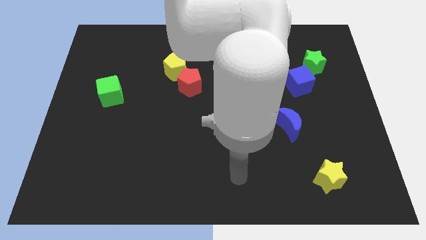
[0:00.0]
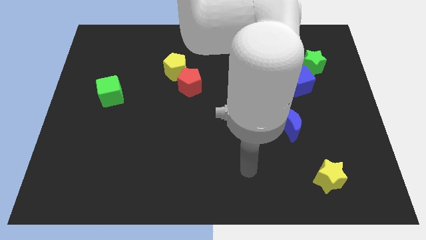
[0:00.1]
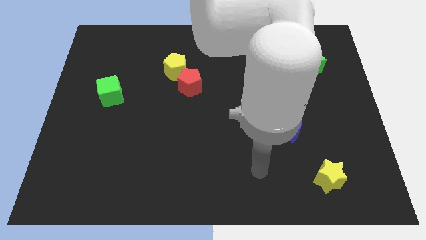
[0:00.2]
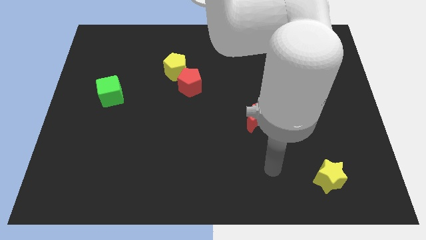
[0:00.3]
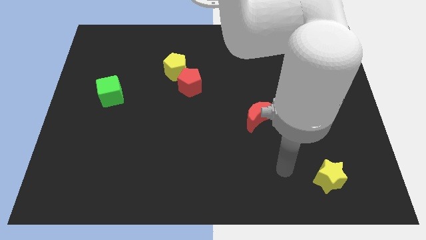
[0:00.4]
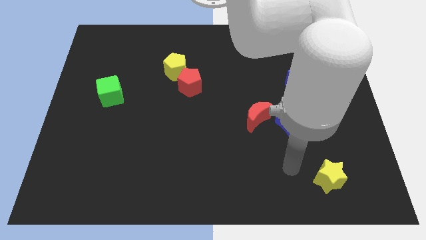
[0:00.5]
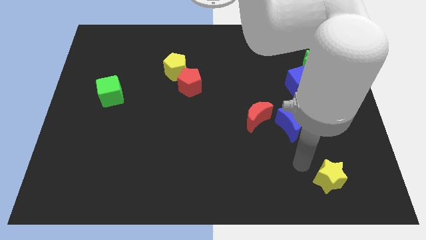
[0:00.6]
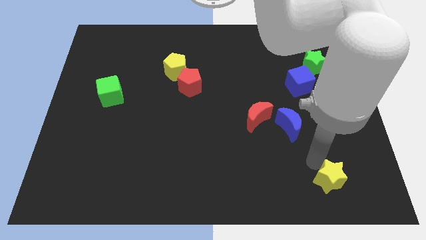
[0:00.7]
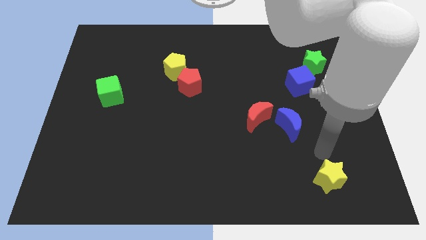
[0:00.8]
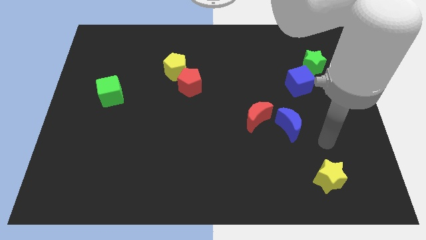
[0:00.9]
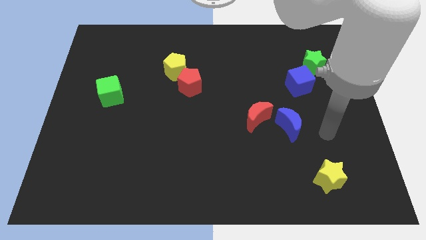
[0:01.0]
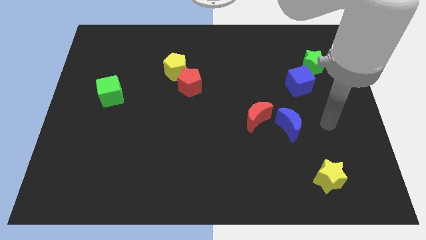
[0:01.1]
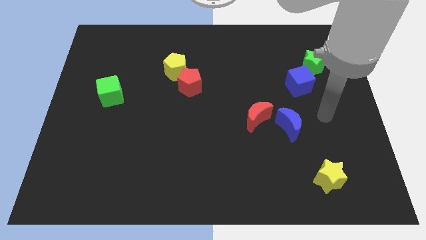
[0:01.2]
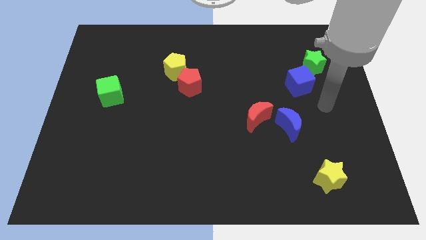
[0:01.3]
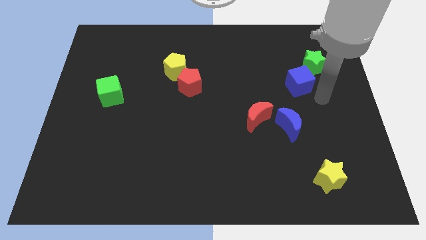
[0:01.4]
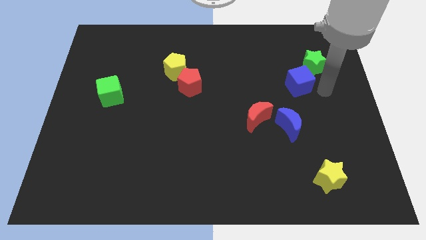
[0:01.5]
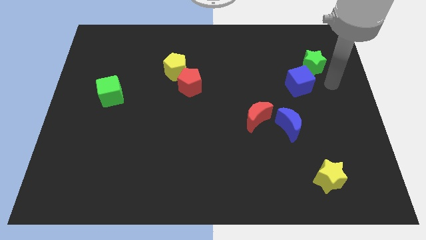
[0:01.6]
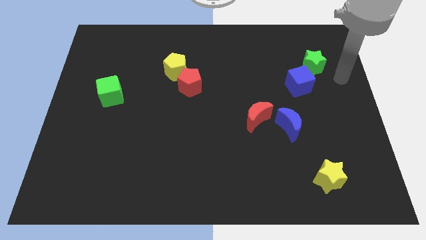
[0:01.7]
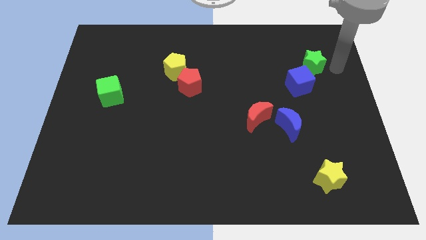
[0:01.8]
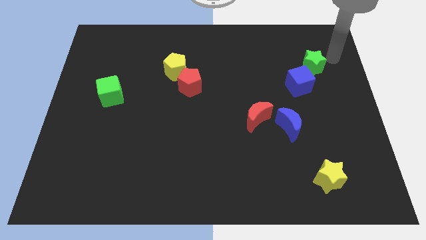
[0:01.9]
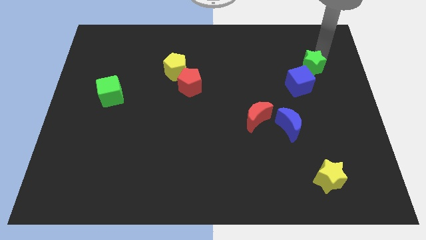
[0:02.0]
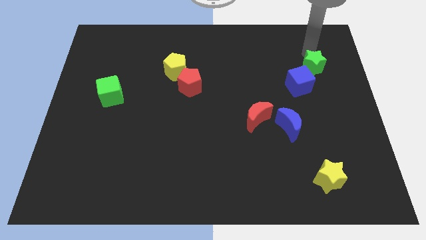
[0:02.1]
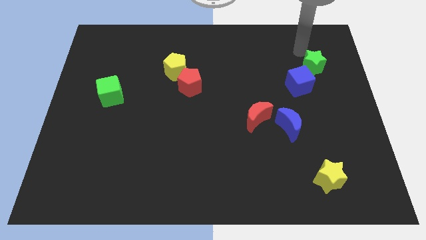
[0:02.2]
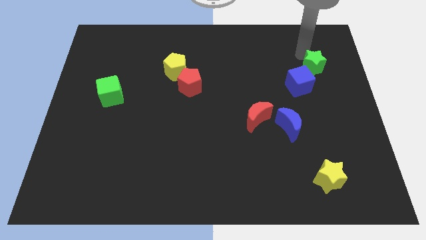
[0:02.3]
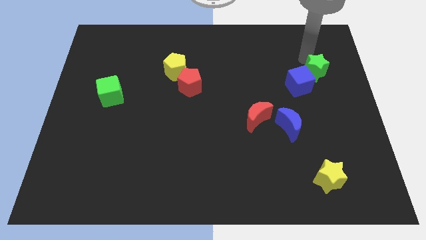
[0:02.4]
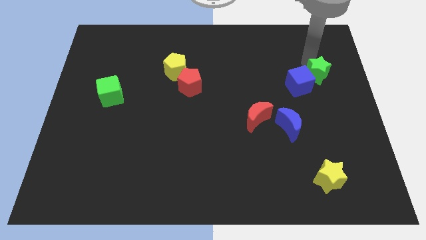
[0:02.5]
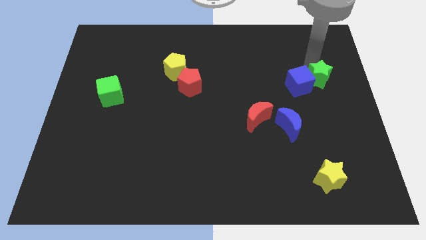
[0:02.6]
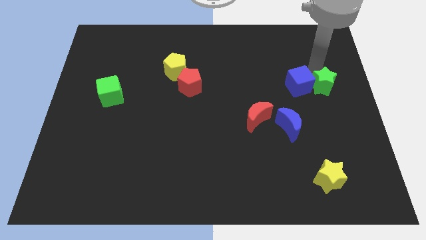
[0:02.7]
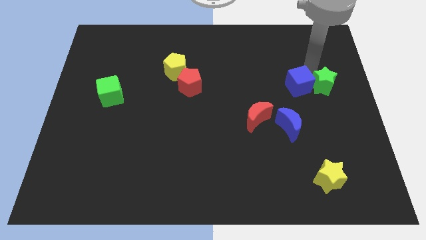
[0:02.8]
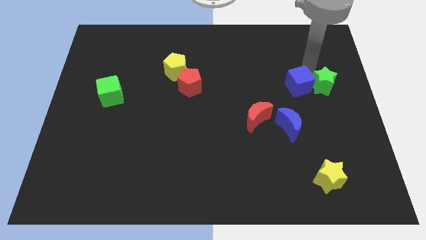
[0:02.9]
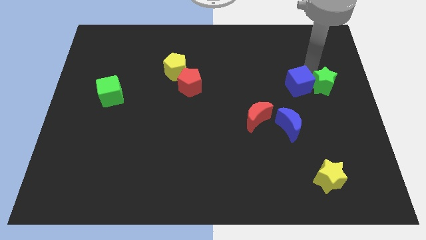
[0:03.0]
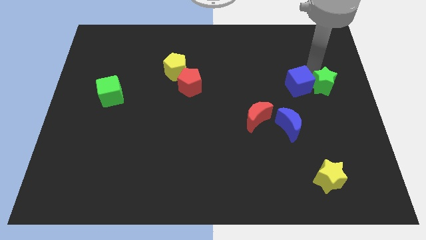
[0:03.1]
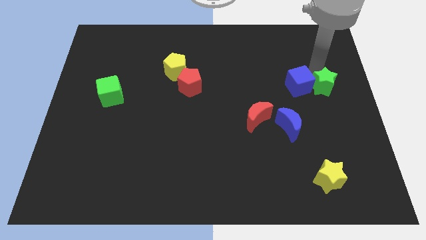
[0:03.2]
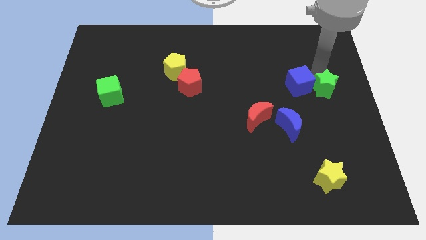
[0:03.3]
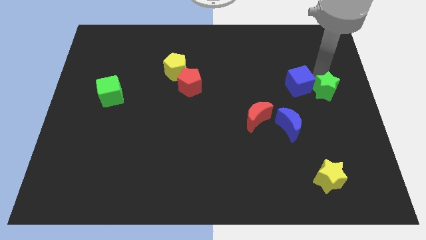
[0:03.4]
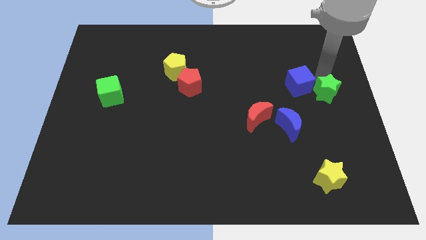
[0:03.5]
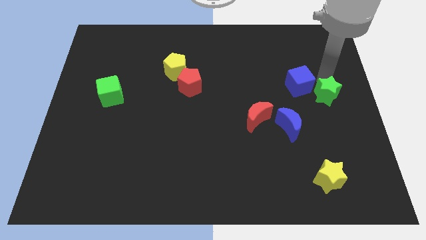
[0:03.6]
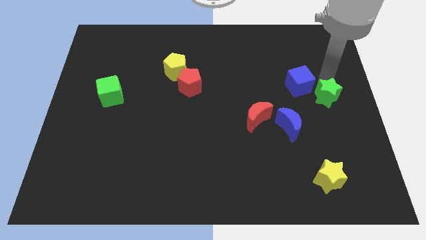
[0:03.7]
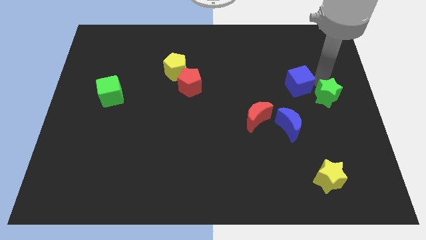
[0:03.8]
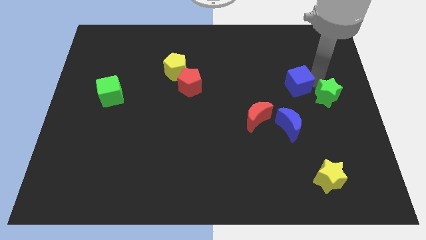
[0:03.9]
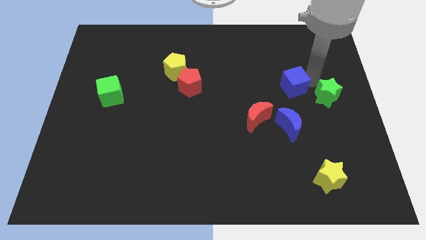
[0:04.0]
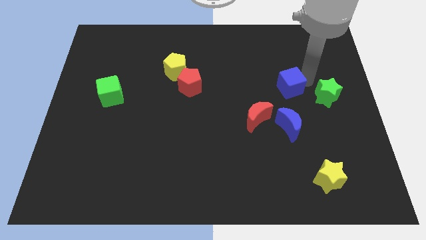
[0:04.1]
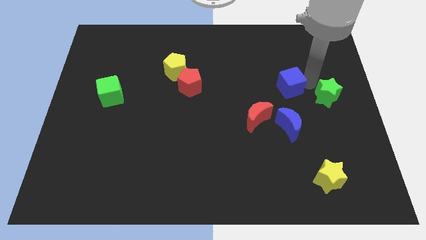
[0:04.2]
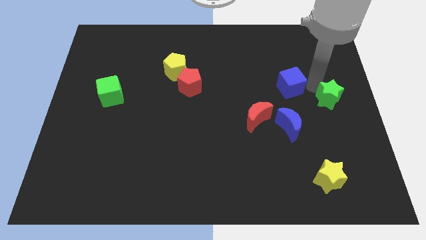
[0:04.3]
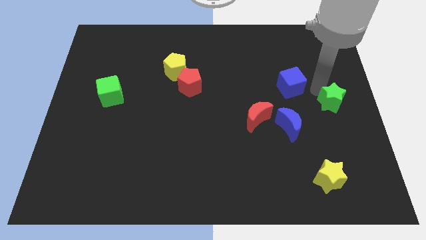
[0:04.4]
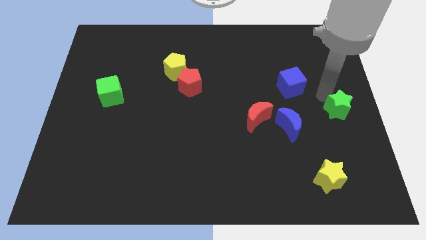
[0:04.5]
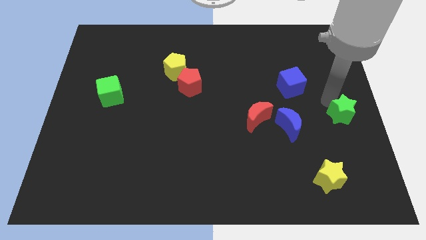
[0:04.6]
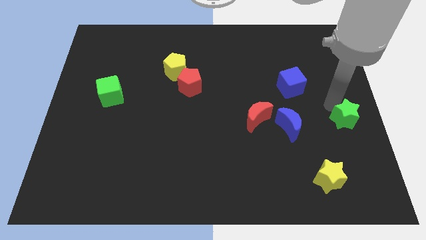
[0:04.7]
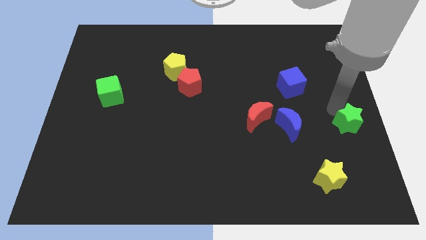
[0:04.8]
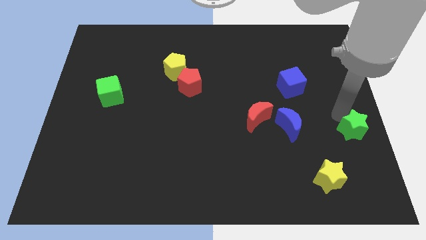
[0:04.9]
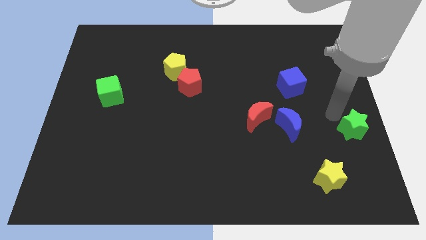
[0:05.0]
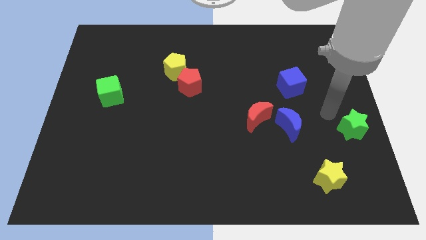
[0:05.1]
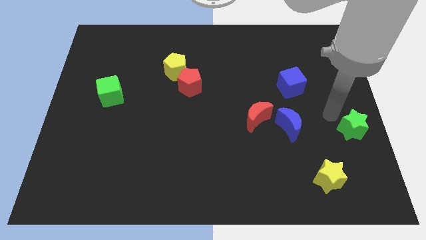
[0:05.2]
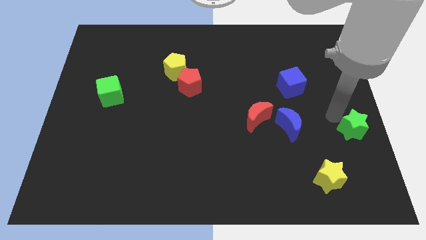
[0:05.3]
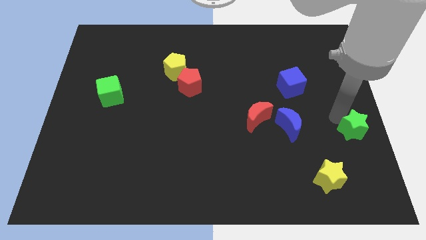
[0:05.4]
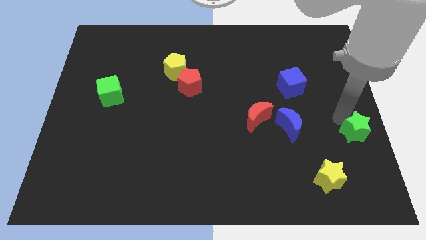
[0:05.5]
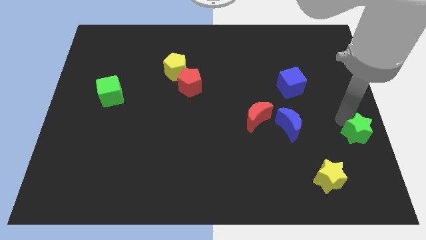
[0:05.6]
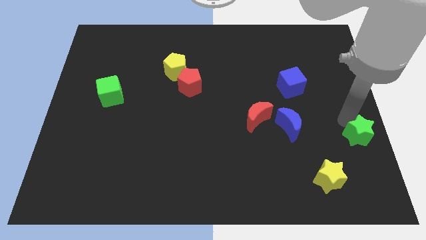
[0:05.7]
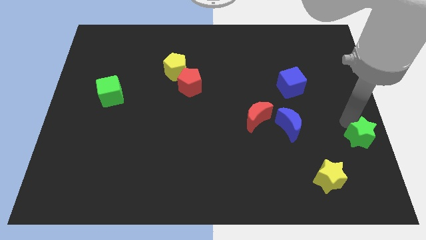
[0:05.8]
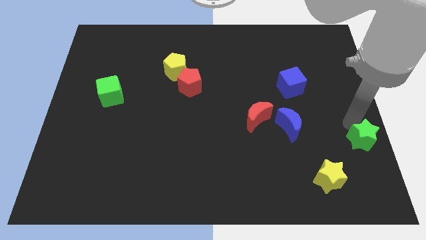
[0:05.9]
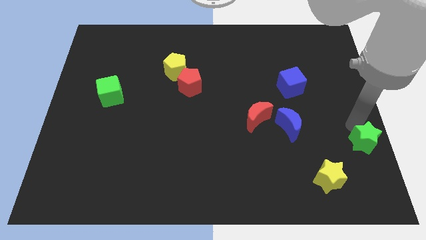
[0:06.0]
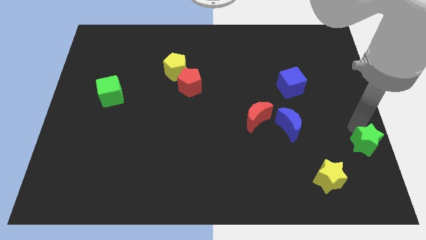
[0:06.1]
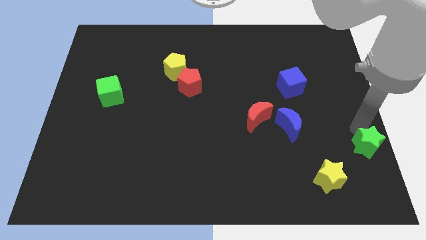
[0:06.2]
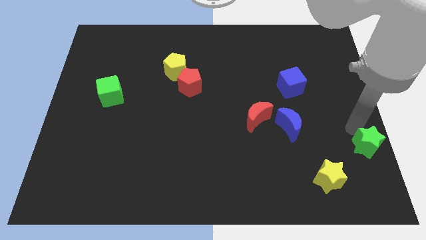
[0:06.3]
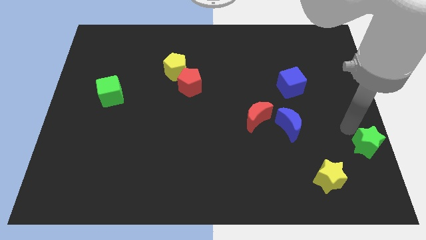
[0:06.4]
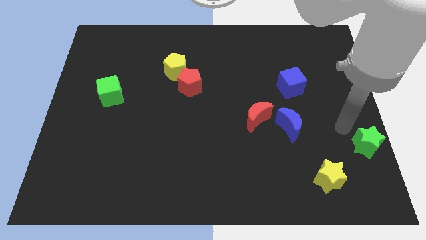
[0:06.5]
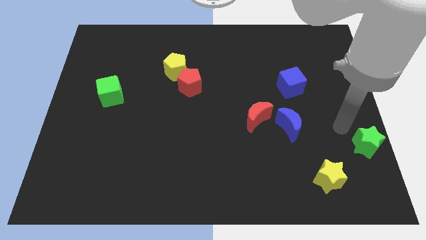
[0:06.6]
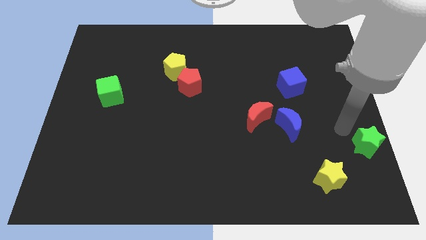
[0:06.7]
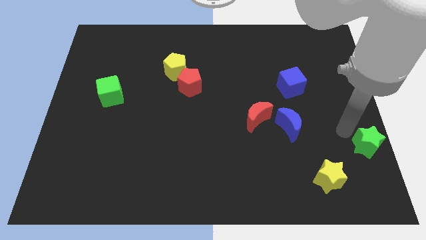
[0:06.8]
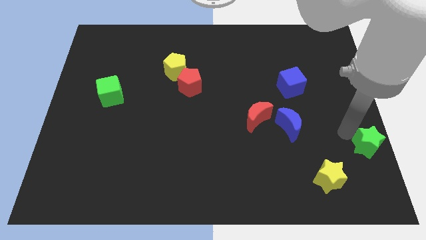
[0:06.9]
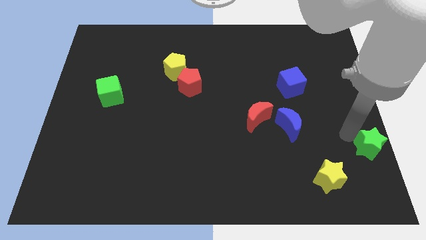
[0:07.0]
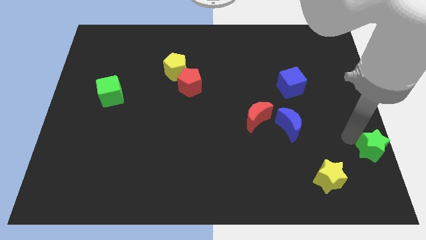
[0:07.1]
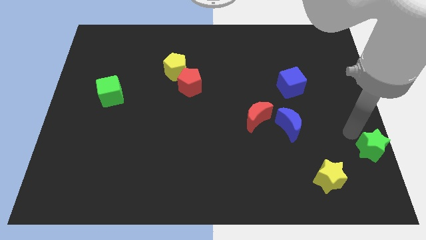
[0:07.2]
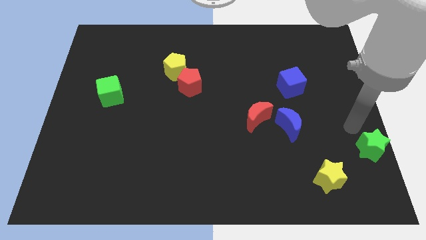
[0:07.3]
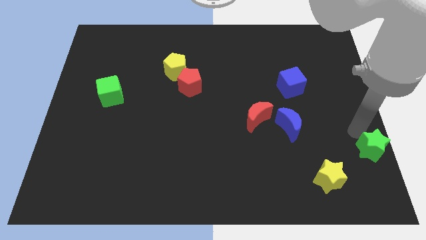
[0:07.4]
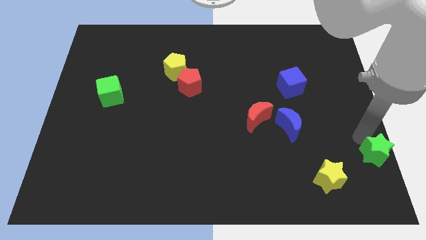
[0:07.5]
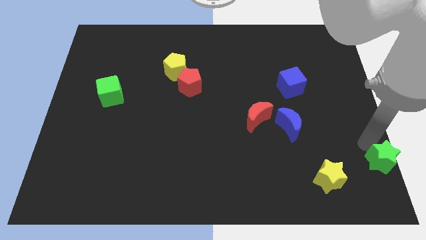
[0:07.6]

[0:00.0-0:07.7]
move the green star to the bottom right corner
